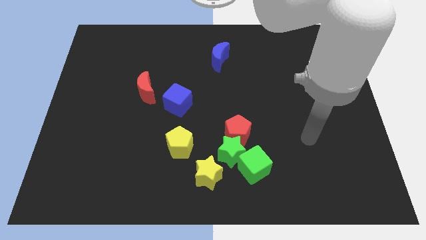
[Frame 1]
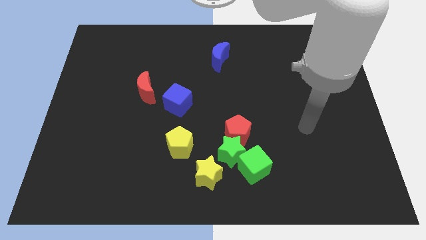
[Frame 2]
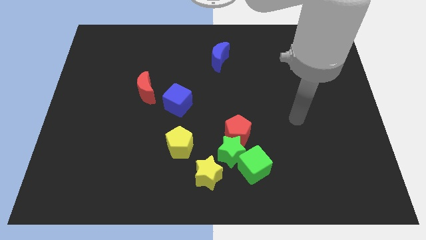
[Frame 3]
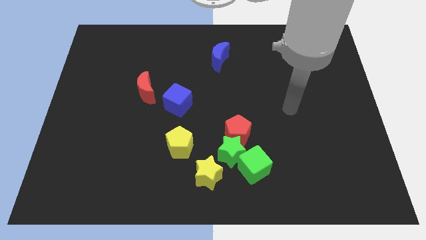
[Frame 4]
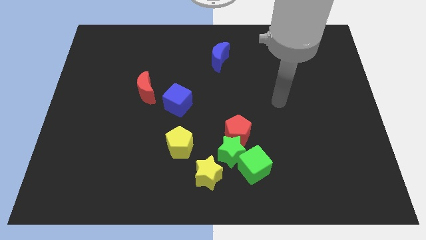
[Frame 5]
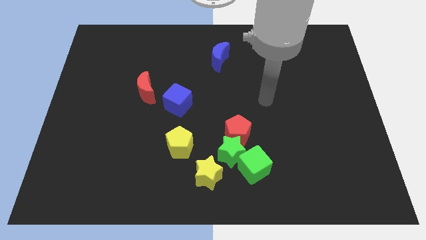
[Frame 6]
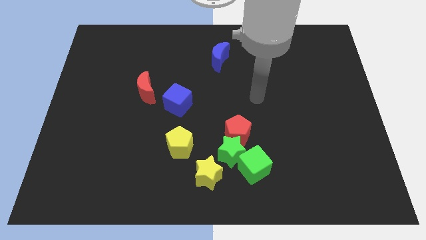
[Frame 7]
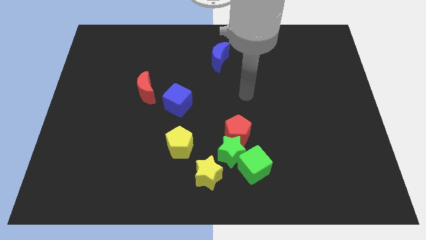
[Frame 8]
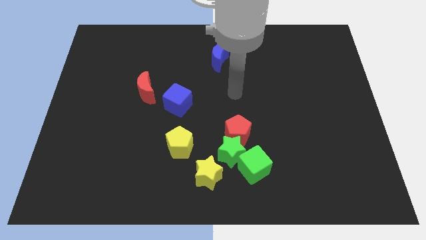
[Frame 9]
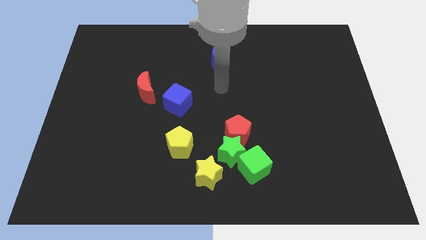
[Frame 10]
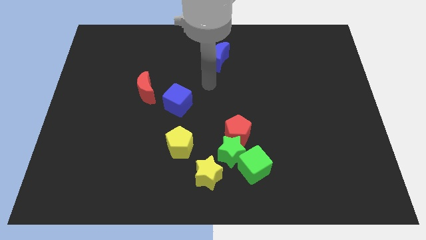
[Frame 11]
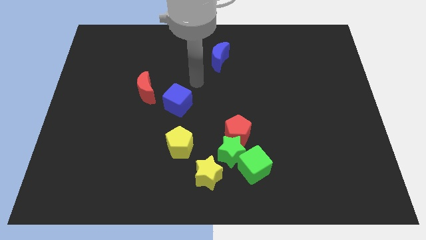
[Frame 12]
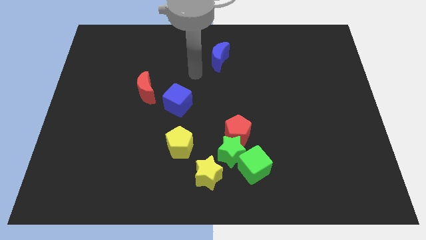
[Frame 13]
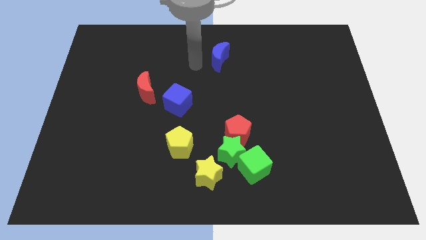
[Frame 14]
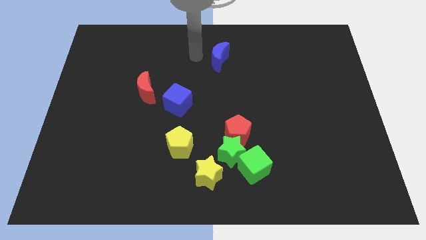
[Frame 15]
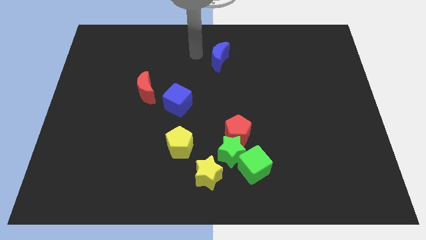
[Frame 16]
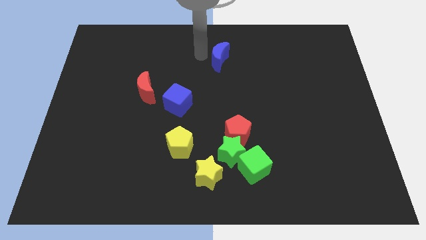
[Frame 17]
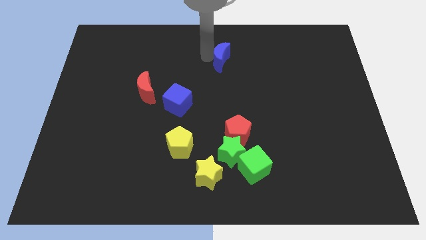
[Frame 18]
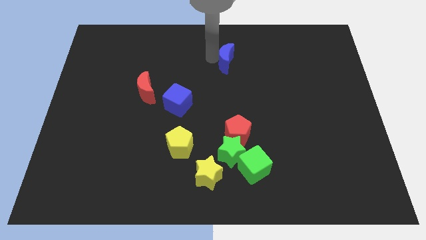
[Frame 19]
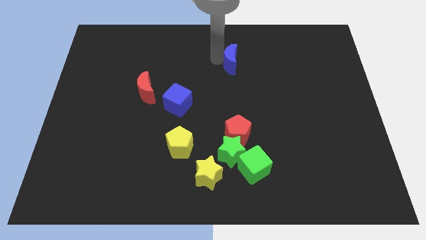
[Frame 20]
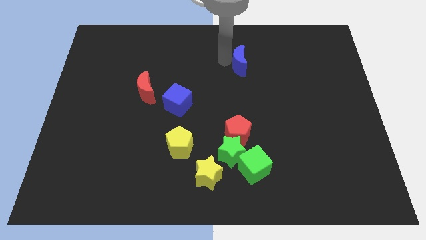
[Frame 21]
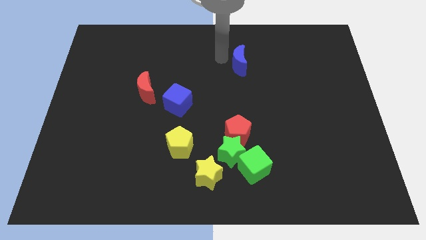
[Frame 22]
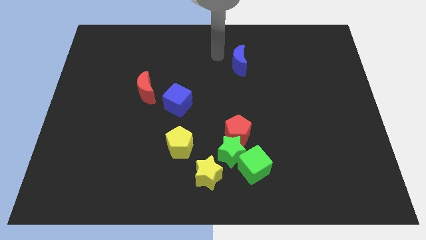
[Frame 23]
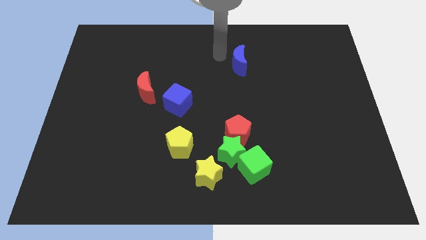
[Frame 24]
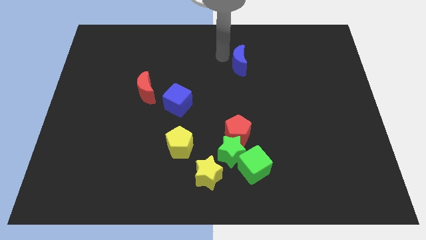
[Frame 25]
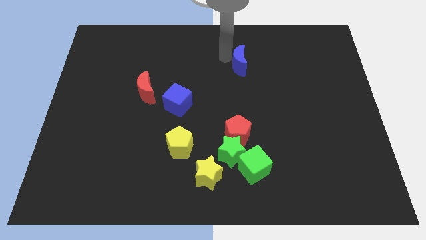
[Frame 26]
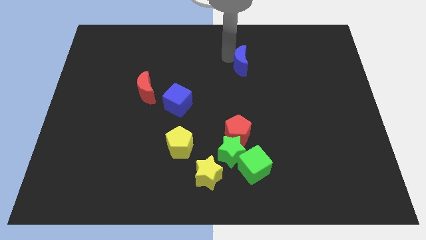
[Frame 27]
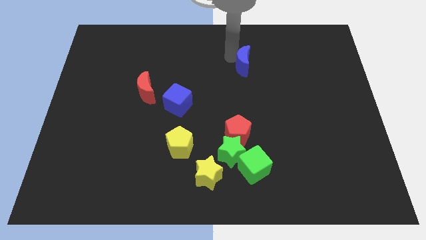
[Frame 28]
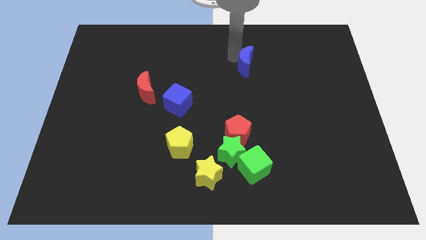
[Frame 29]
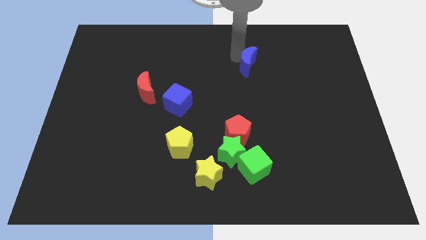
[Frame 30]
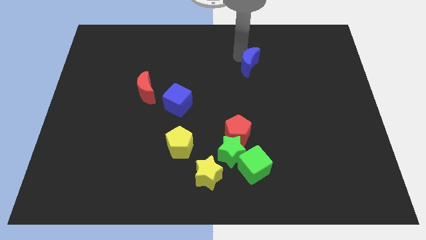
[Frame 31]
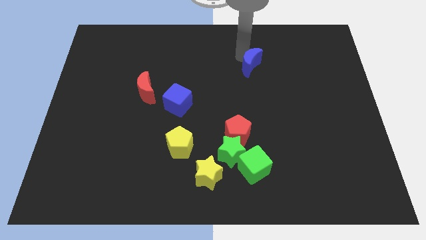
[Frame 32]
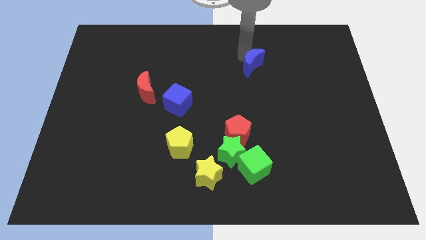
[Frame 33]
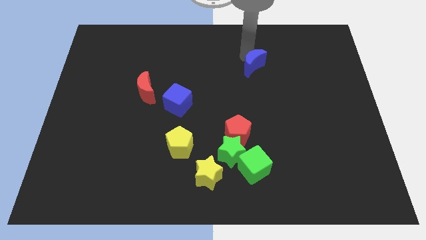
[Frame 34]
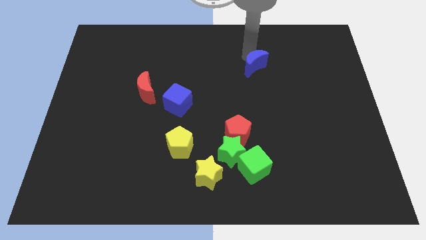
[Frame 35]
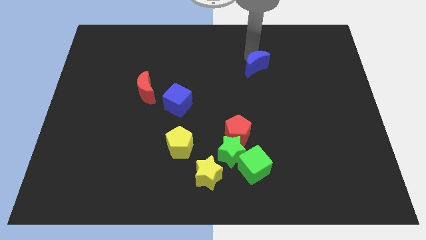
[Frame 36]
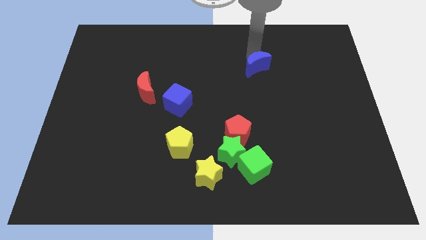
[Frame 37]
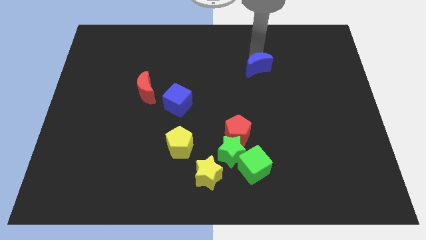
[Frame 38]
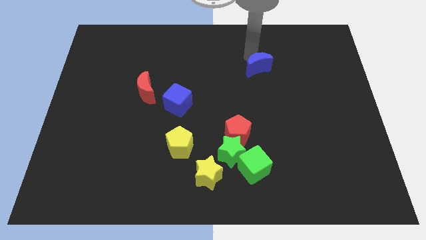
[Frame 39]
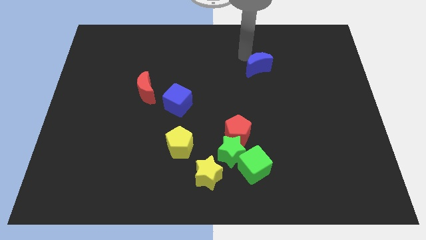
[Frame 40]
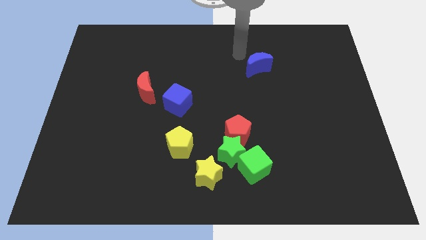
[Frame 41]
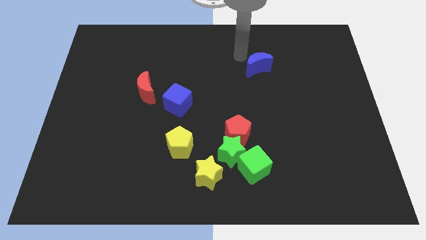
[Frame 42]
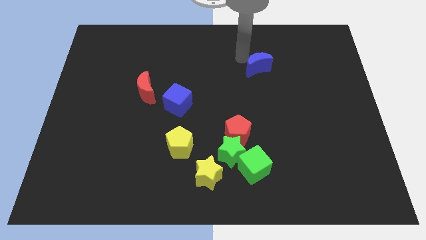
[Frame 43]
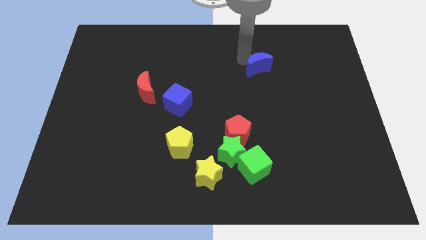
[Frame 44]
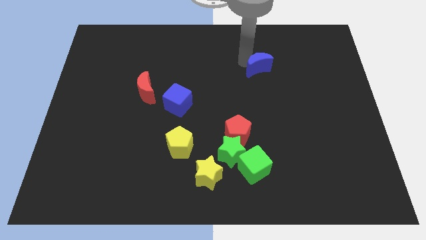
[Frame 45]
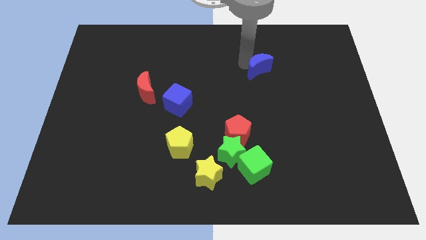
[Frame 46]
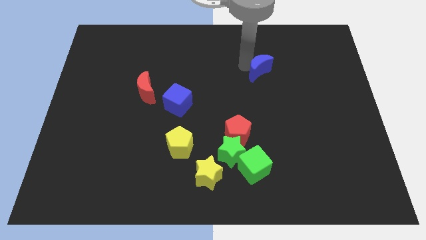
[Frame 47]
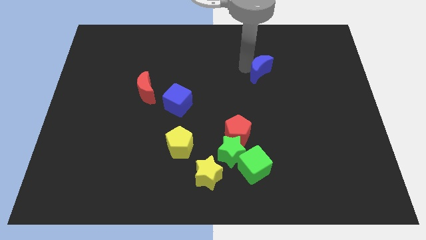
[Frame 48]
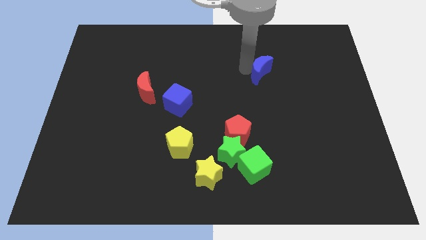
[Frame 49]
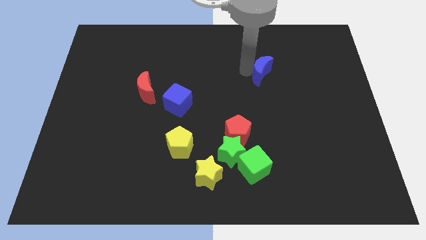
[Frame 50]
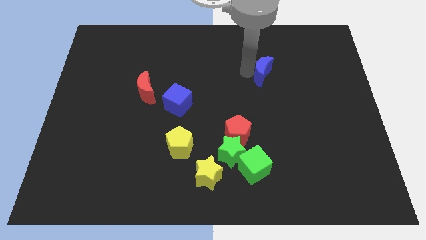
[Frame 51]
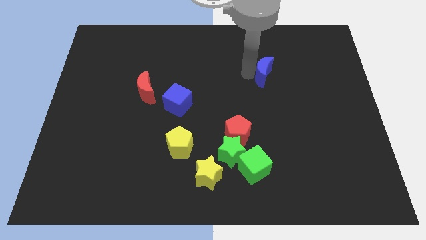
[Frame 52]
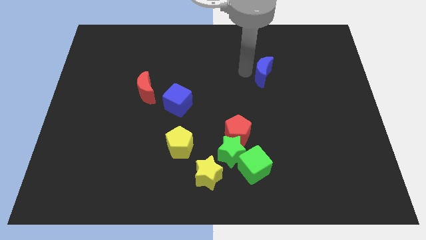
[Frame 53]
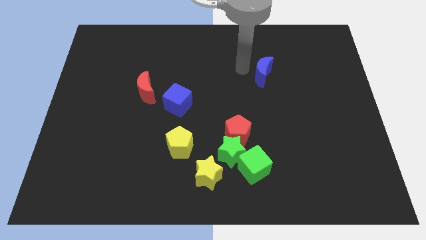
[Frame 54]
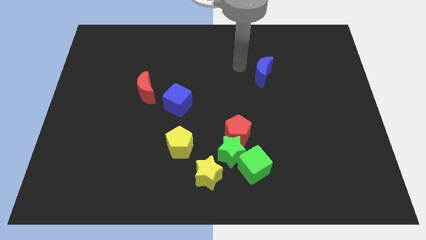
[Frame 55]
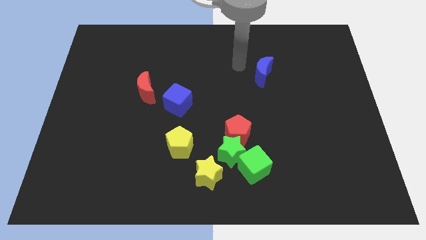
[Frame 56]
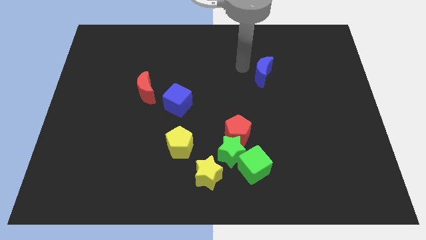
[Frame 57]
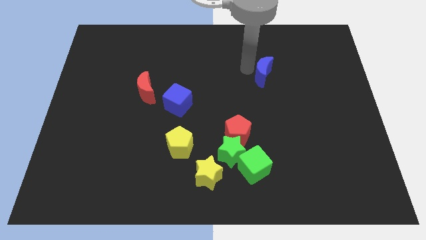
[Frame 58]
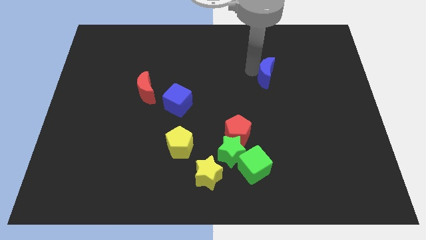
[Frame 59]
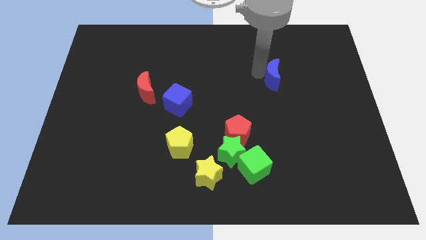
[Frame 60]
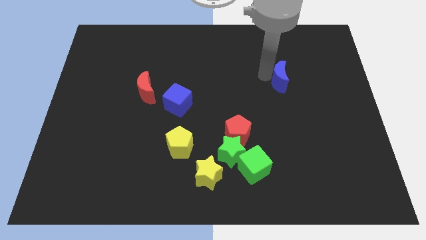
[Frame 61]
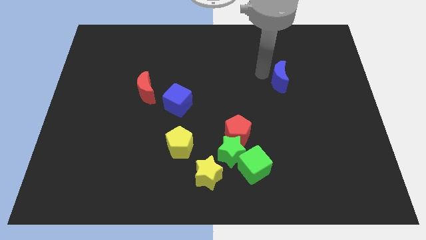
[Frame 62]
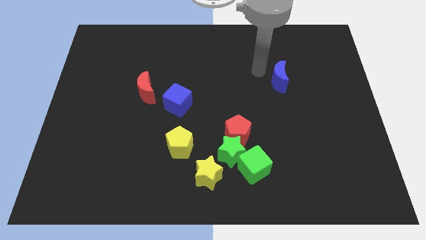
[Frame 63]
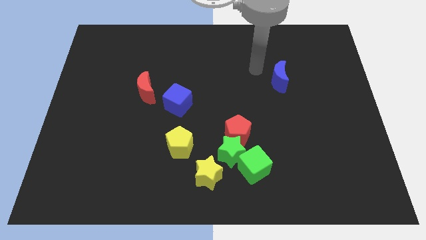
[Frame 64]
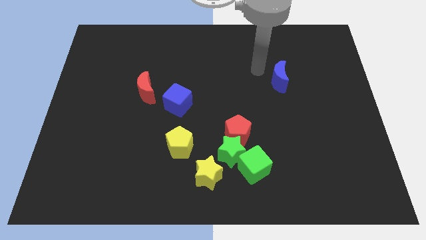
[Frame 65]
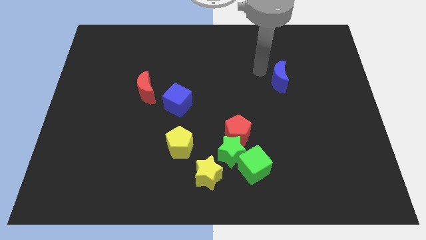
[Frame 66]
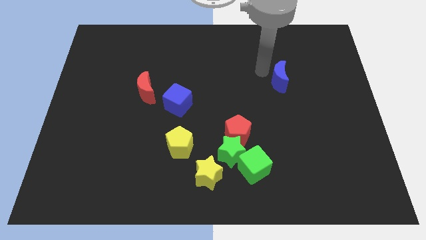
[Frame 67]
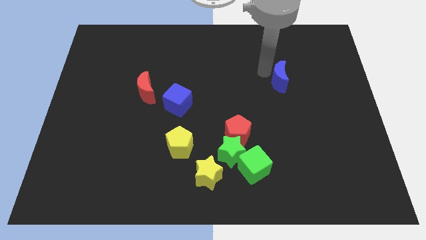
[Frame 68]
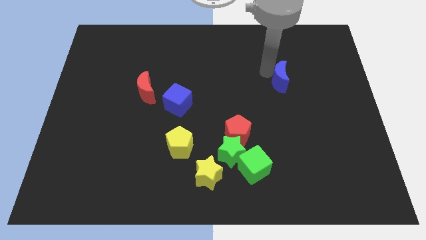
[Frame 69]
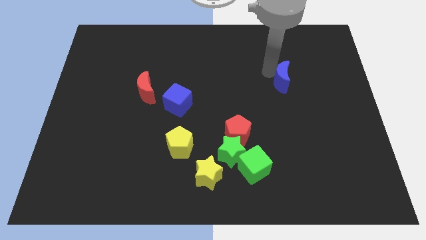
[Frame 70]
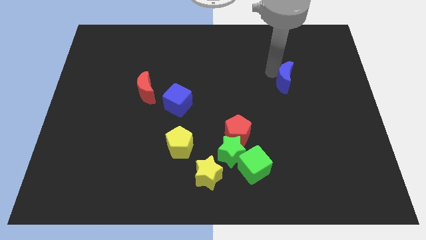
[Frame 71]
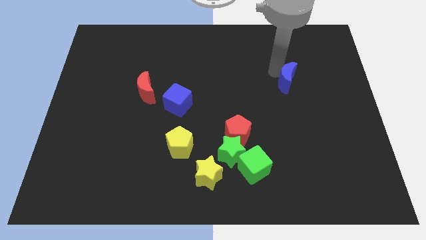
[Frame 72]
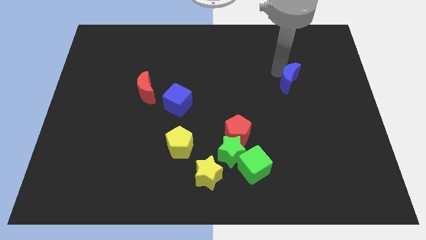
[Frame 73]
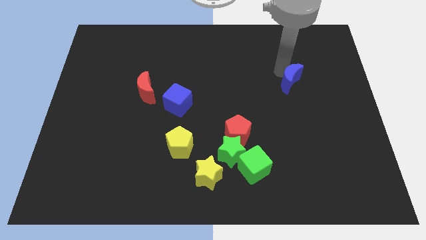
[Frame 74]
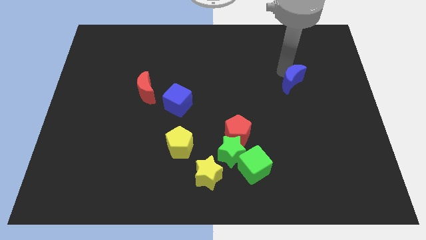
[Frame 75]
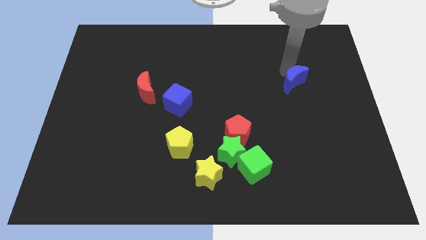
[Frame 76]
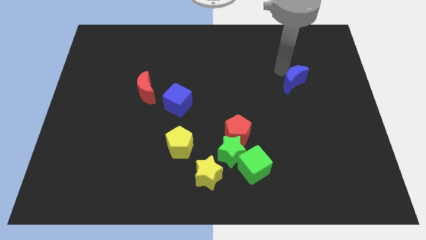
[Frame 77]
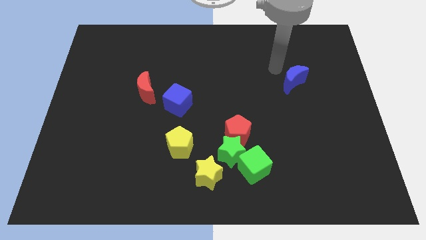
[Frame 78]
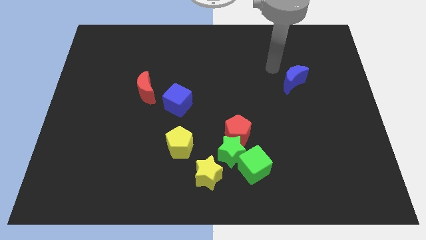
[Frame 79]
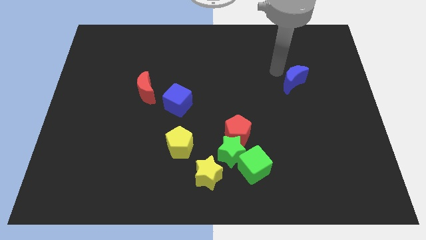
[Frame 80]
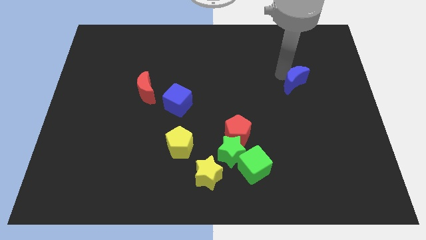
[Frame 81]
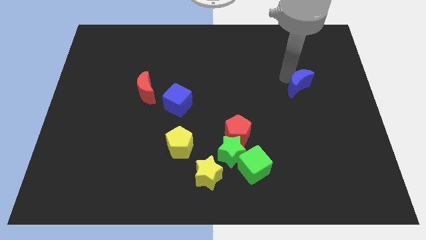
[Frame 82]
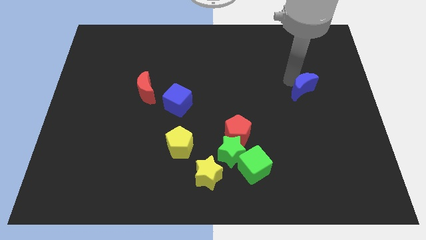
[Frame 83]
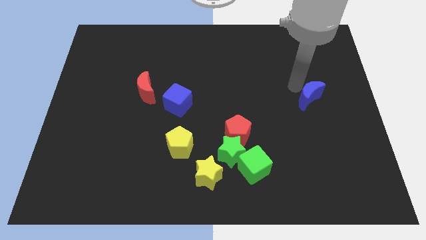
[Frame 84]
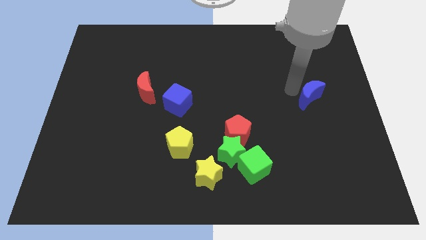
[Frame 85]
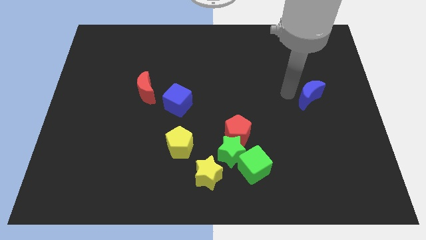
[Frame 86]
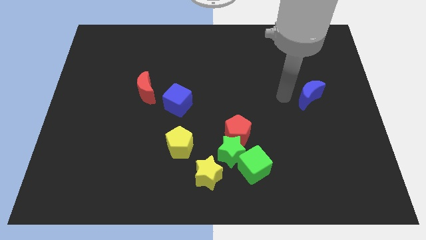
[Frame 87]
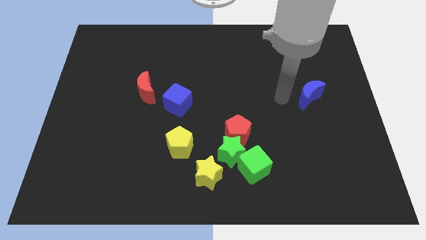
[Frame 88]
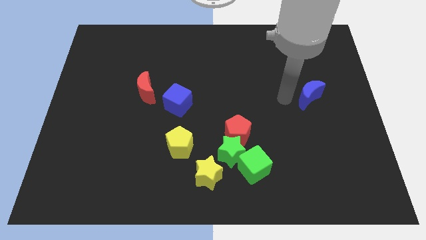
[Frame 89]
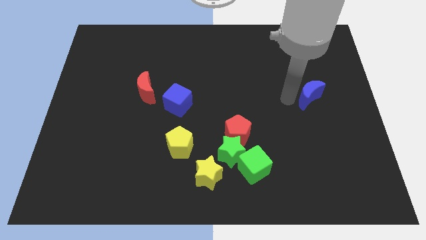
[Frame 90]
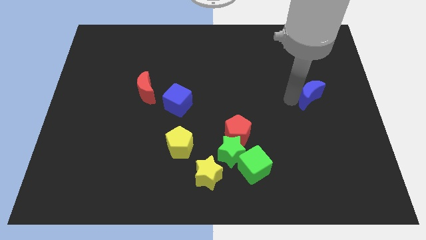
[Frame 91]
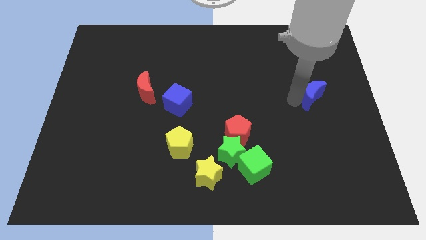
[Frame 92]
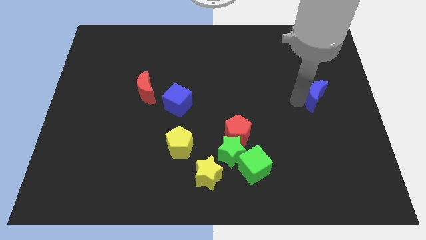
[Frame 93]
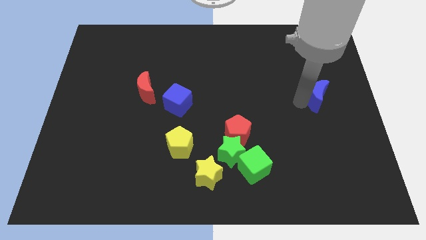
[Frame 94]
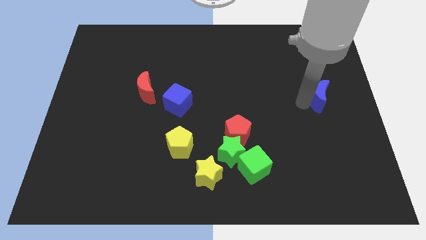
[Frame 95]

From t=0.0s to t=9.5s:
push the blue moon to the right side of the board
